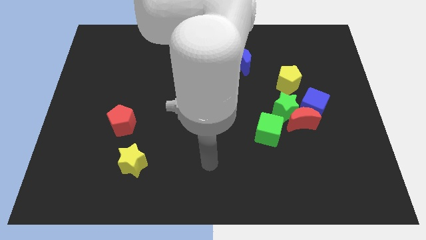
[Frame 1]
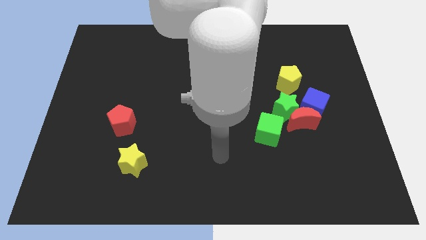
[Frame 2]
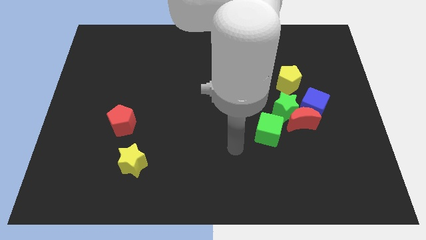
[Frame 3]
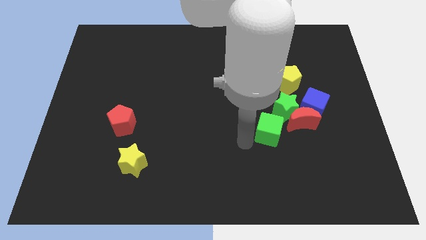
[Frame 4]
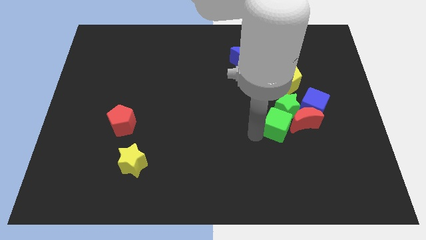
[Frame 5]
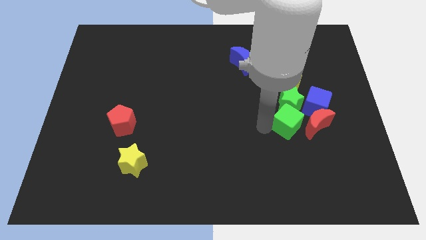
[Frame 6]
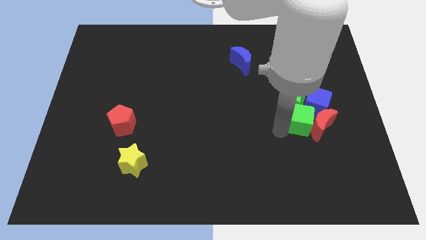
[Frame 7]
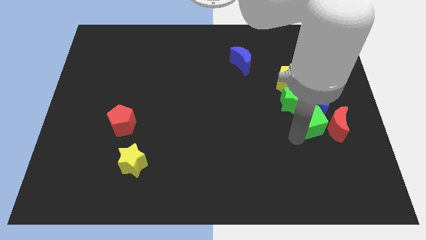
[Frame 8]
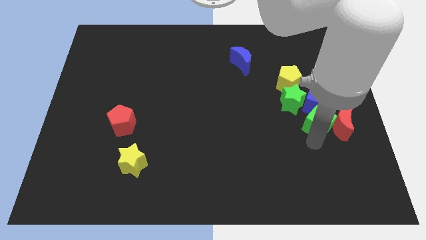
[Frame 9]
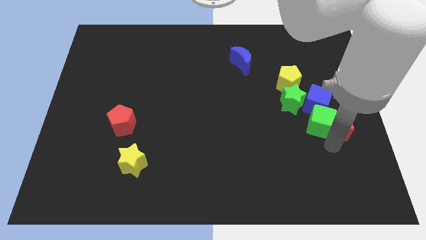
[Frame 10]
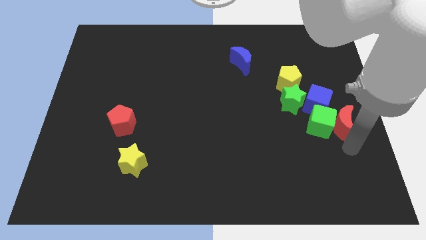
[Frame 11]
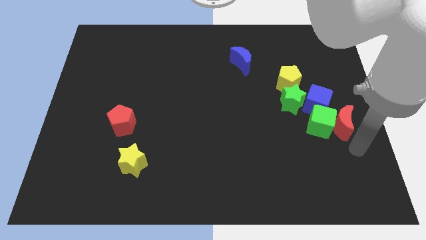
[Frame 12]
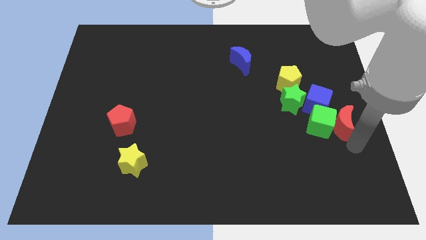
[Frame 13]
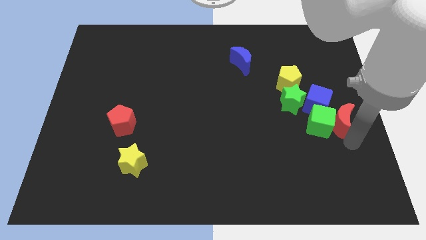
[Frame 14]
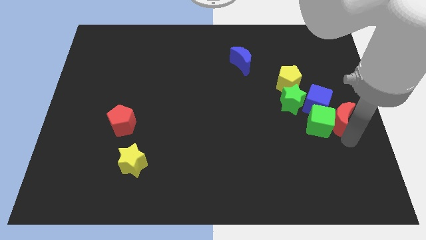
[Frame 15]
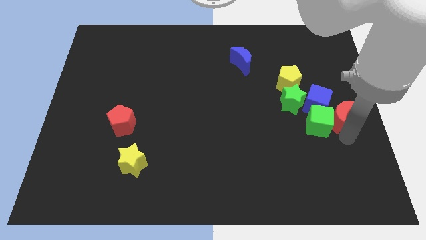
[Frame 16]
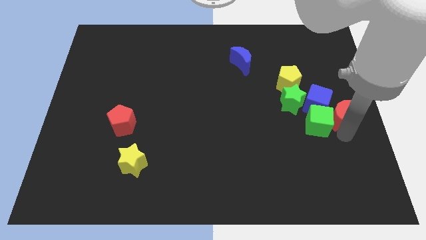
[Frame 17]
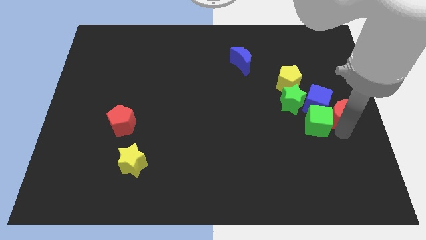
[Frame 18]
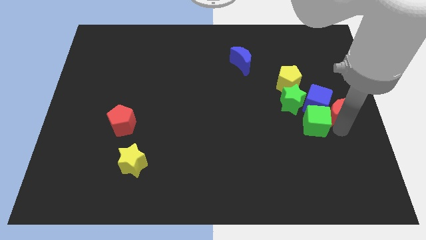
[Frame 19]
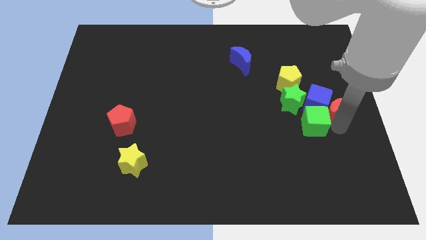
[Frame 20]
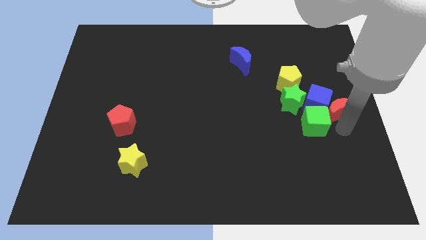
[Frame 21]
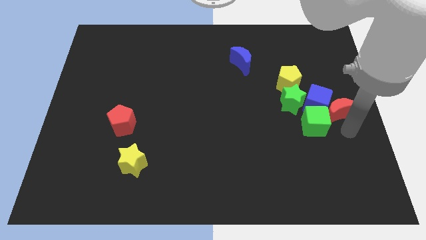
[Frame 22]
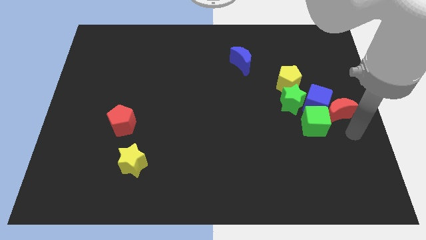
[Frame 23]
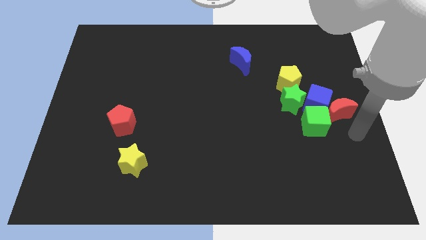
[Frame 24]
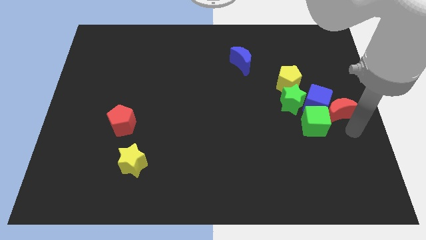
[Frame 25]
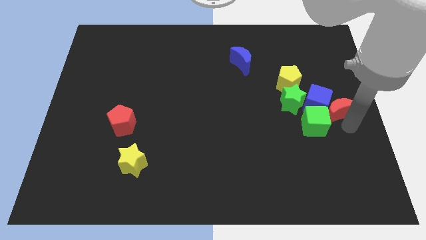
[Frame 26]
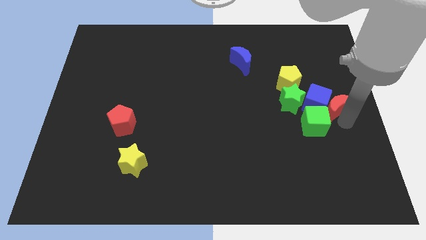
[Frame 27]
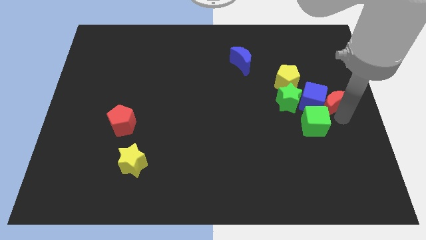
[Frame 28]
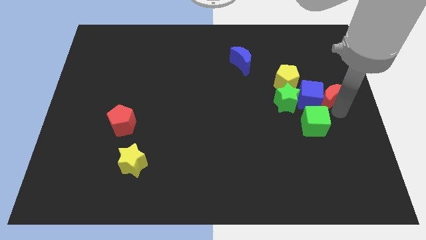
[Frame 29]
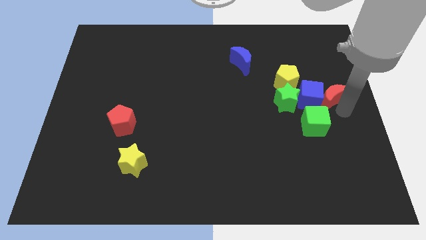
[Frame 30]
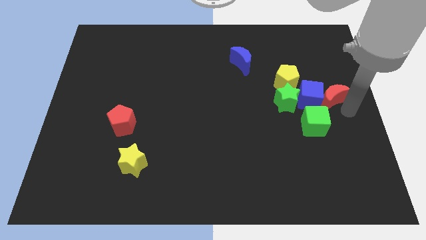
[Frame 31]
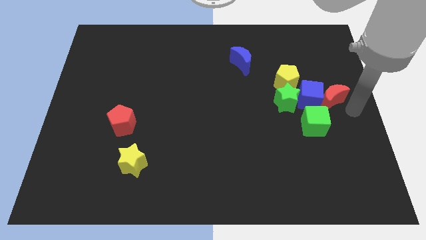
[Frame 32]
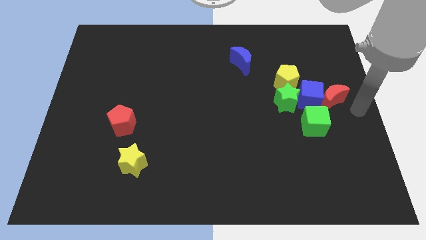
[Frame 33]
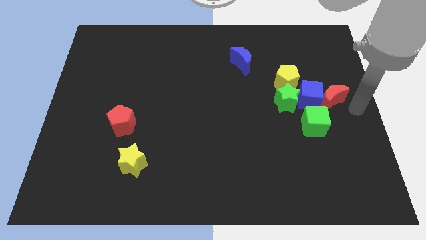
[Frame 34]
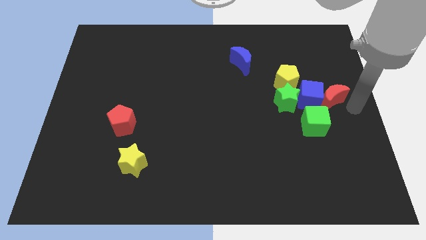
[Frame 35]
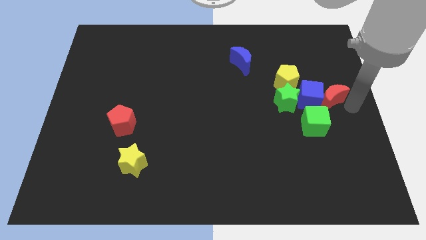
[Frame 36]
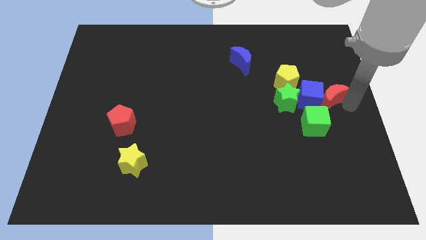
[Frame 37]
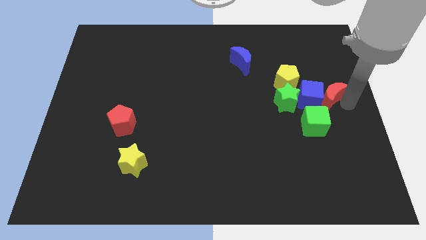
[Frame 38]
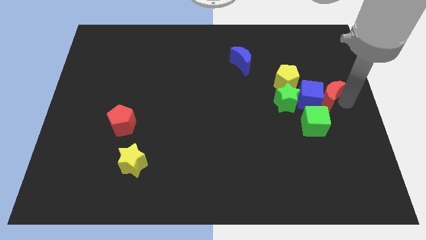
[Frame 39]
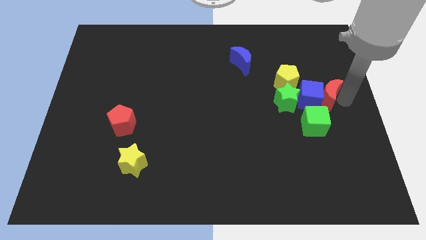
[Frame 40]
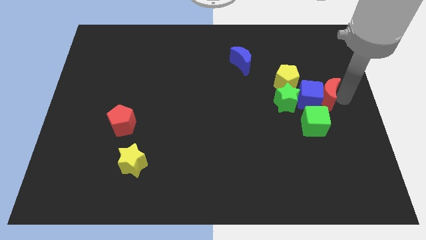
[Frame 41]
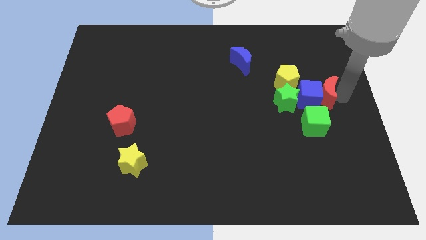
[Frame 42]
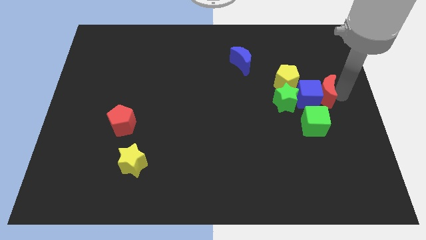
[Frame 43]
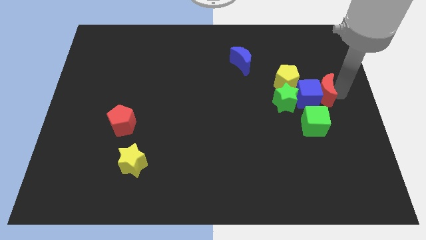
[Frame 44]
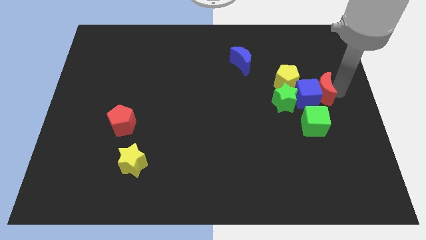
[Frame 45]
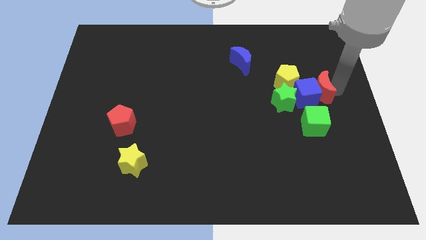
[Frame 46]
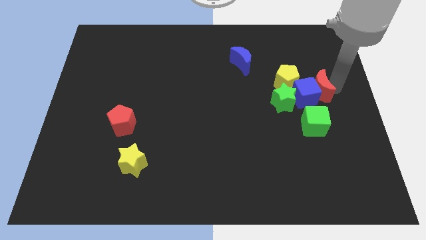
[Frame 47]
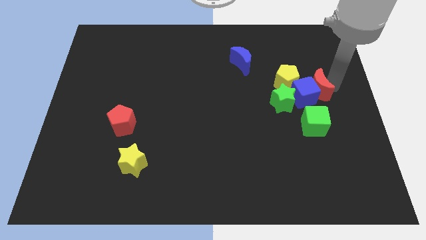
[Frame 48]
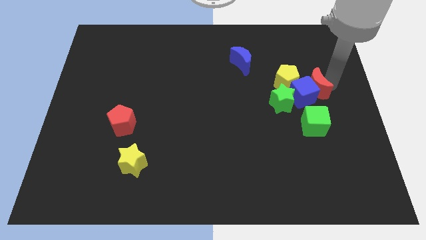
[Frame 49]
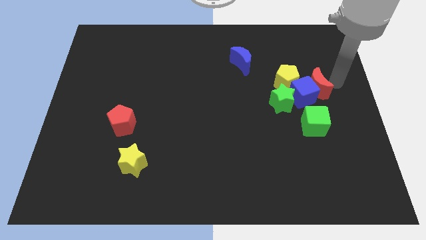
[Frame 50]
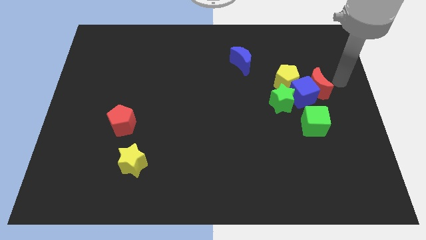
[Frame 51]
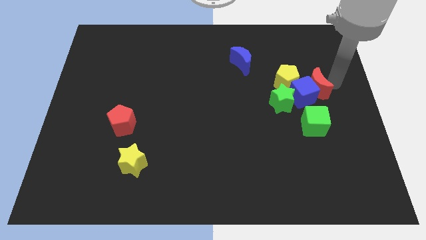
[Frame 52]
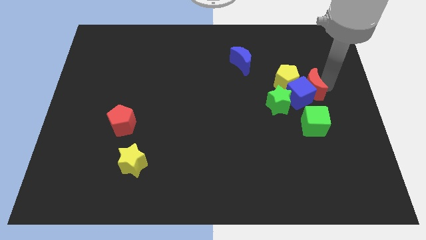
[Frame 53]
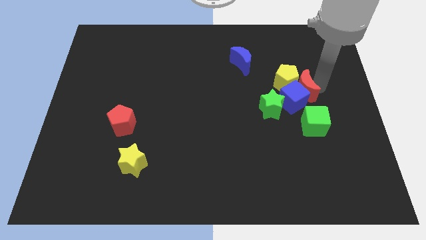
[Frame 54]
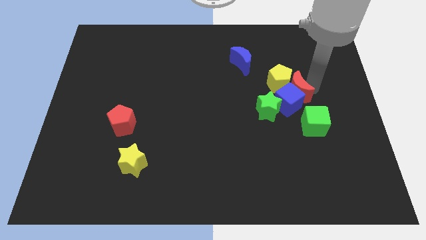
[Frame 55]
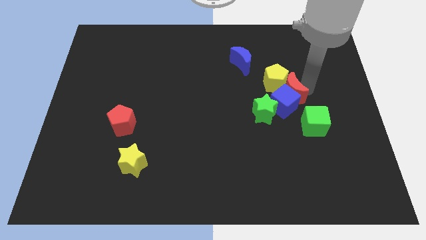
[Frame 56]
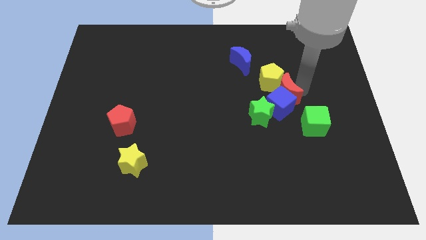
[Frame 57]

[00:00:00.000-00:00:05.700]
push the red moon up and then left a bit

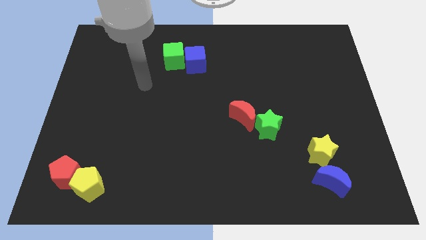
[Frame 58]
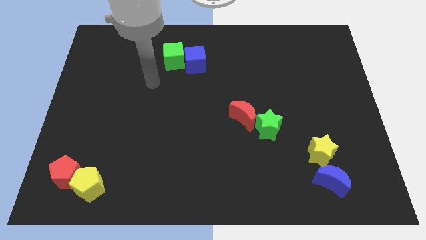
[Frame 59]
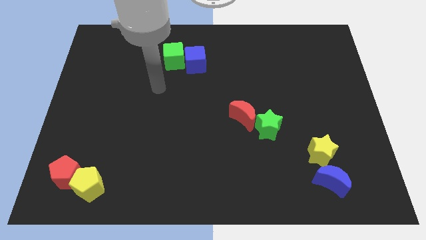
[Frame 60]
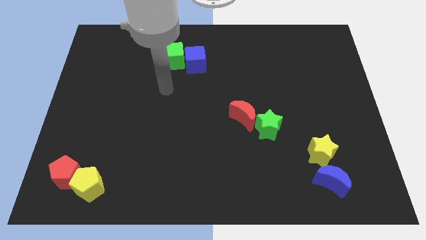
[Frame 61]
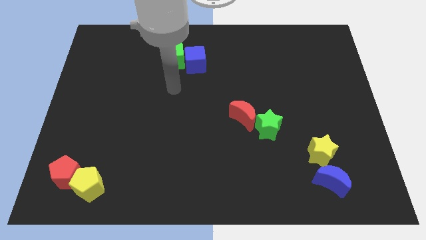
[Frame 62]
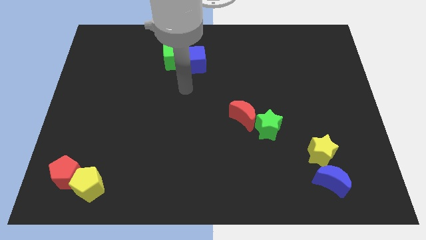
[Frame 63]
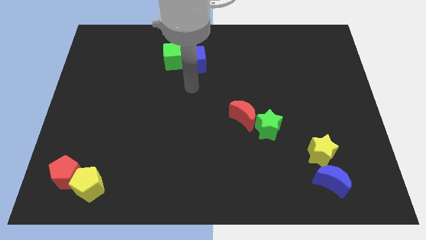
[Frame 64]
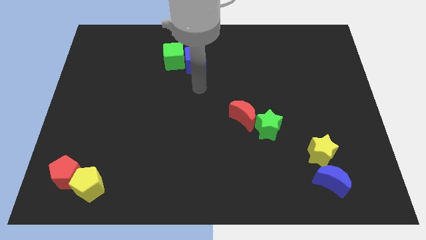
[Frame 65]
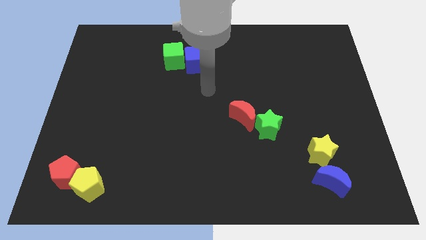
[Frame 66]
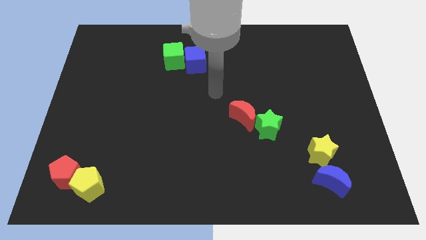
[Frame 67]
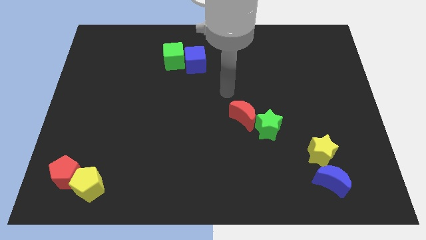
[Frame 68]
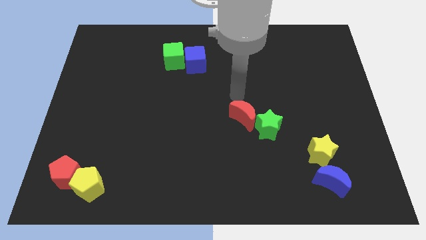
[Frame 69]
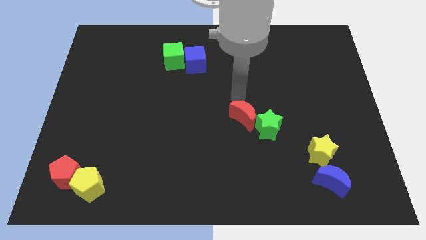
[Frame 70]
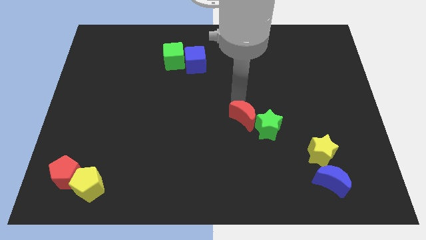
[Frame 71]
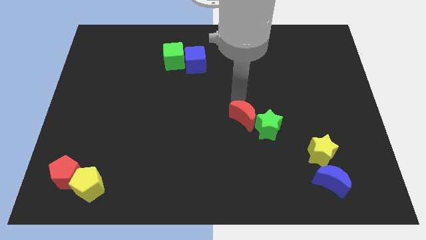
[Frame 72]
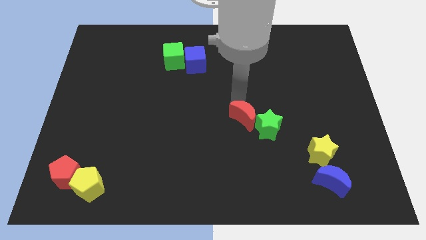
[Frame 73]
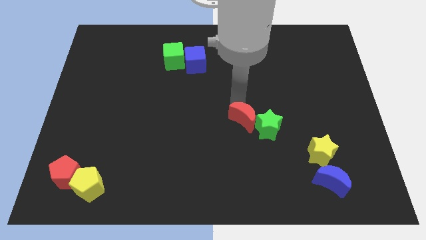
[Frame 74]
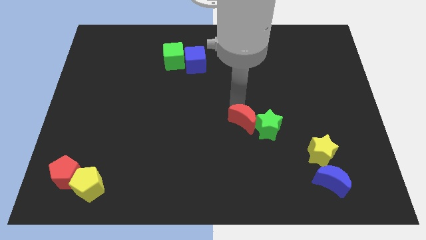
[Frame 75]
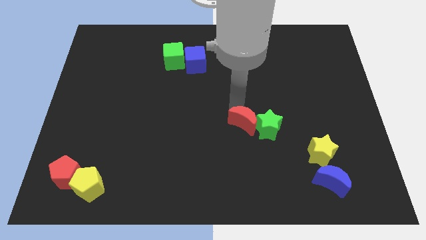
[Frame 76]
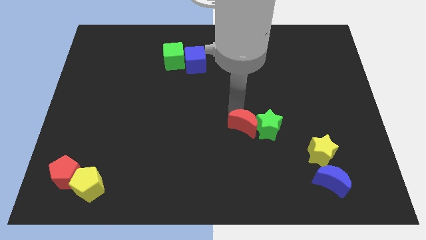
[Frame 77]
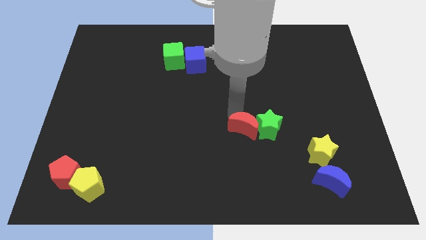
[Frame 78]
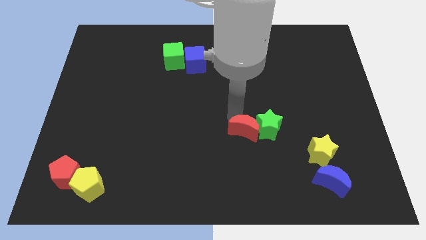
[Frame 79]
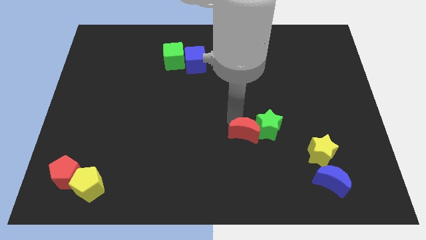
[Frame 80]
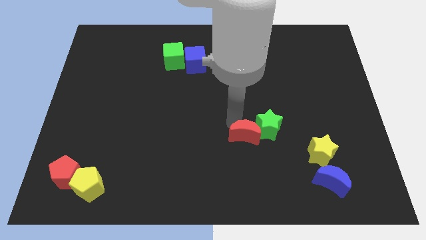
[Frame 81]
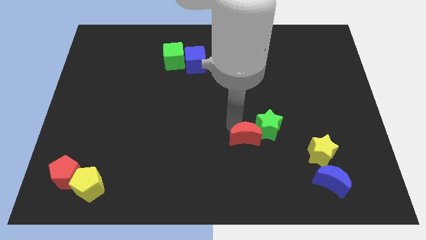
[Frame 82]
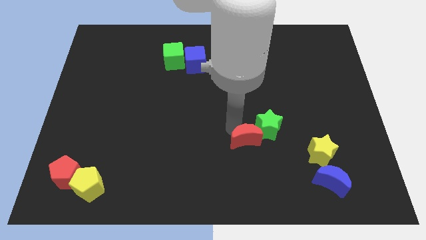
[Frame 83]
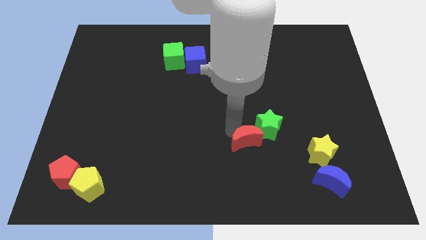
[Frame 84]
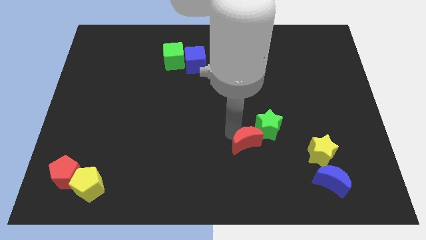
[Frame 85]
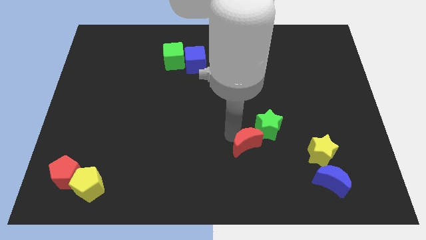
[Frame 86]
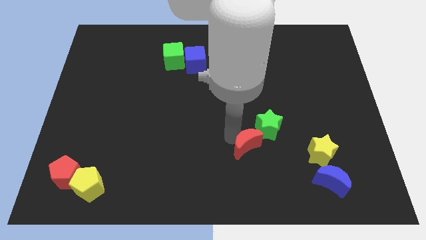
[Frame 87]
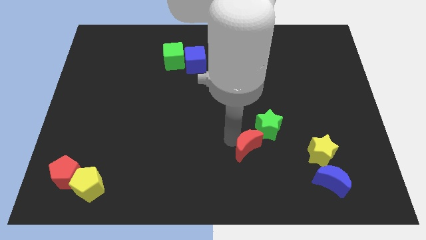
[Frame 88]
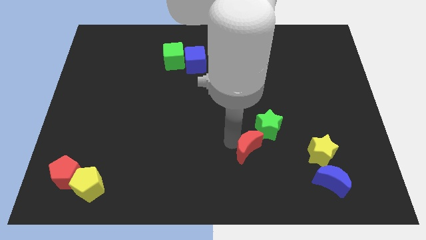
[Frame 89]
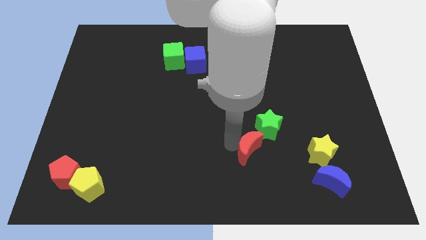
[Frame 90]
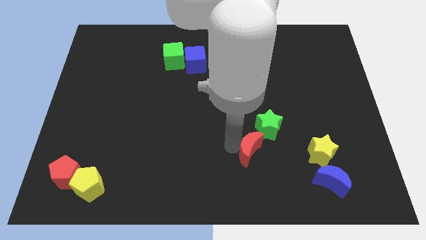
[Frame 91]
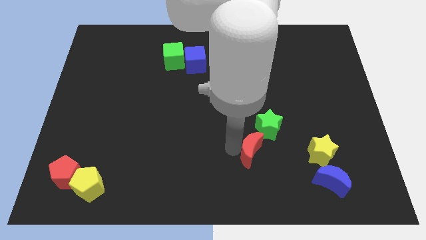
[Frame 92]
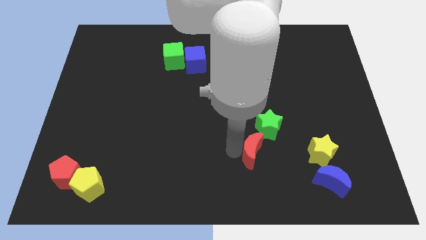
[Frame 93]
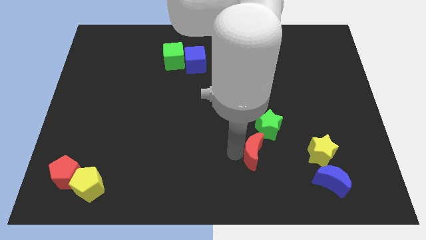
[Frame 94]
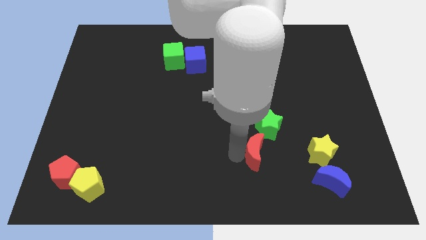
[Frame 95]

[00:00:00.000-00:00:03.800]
slightly slide the red moon diagonally downwards and right
